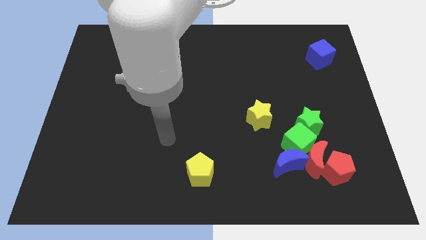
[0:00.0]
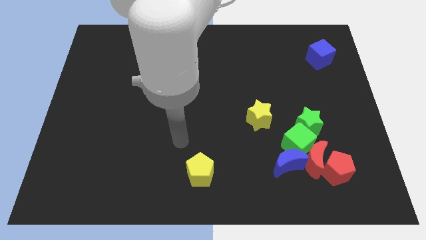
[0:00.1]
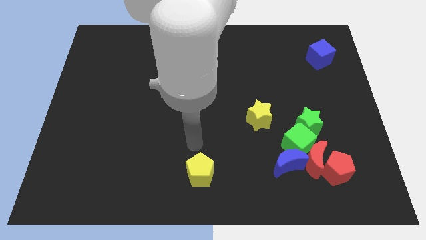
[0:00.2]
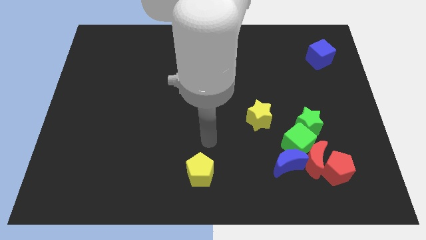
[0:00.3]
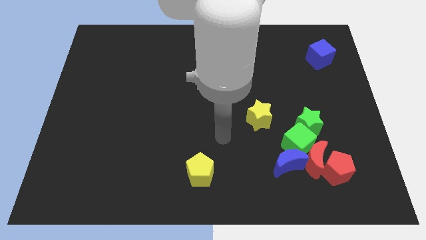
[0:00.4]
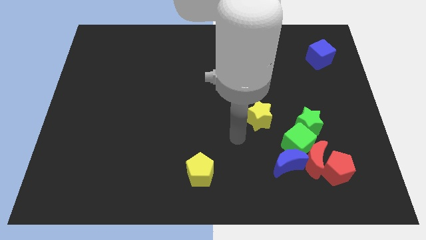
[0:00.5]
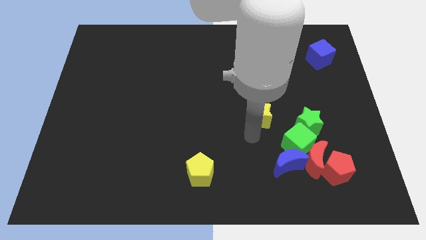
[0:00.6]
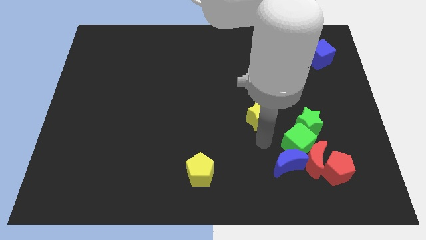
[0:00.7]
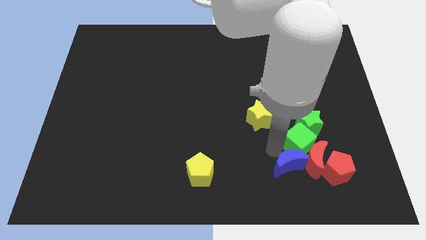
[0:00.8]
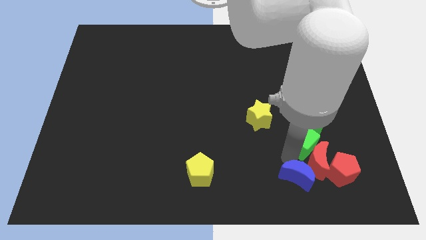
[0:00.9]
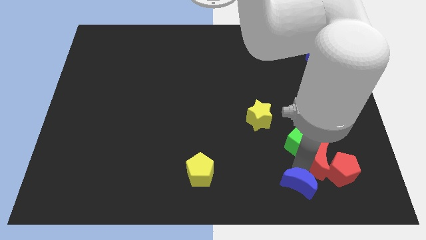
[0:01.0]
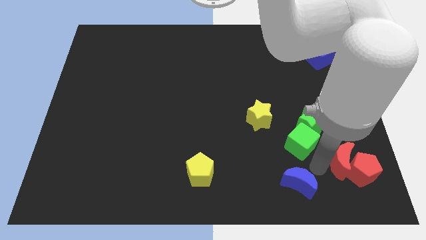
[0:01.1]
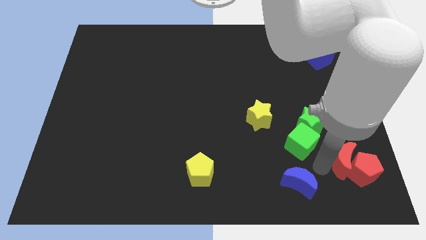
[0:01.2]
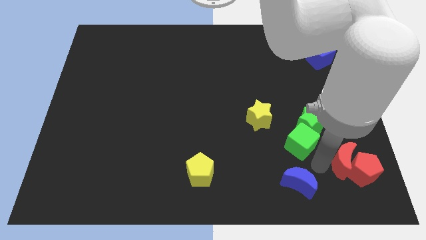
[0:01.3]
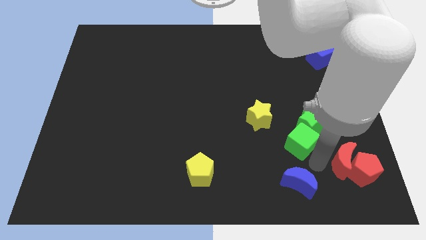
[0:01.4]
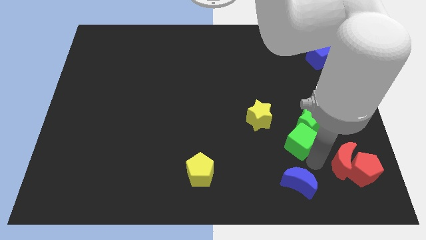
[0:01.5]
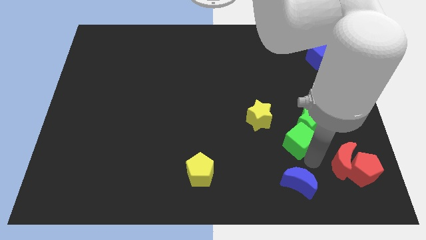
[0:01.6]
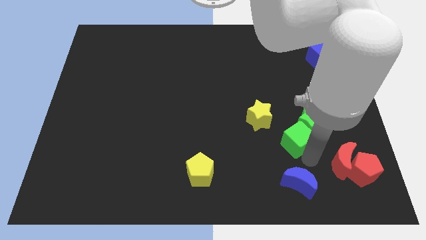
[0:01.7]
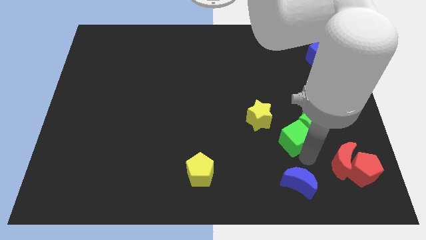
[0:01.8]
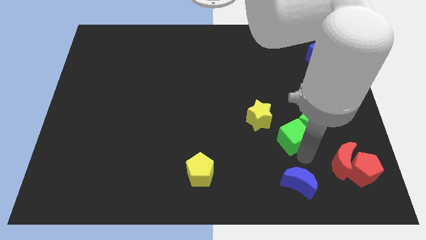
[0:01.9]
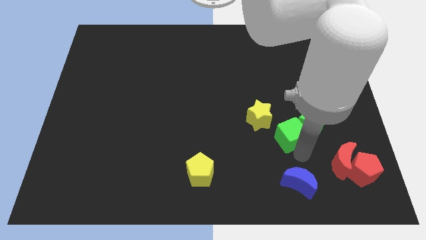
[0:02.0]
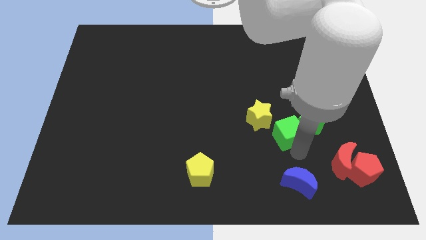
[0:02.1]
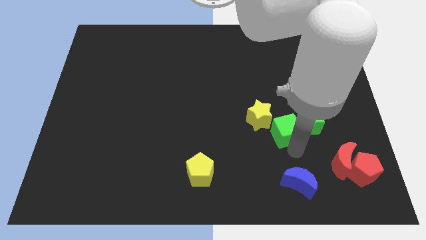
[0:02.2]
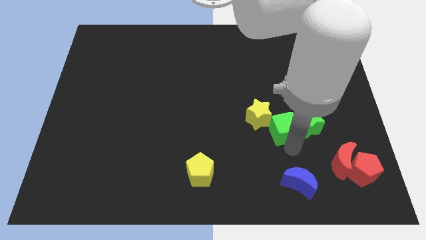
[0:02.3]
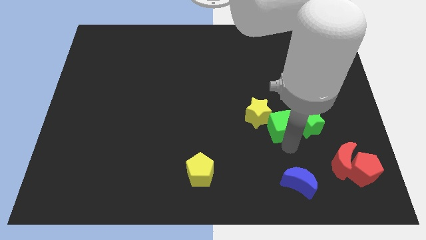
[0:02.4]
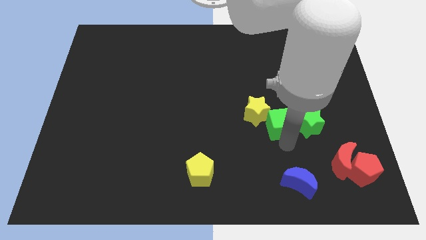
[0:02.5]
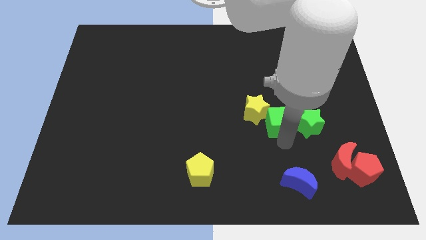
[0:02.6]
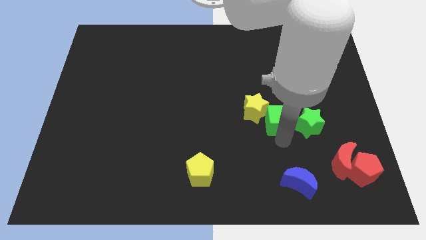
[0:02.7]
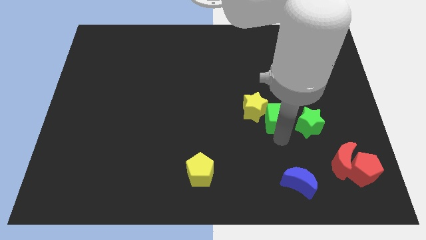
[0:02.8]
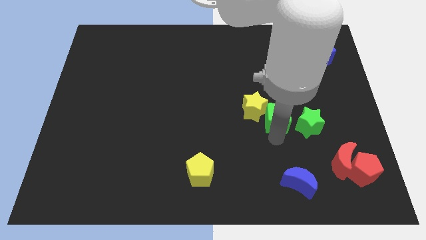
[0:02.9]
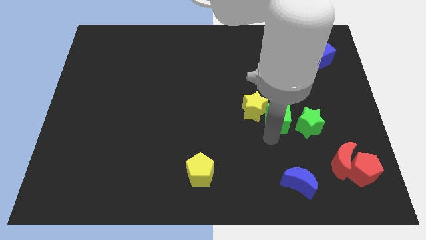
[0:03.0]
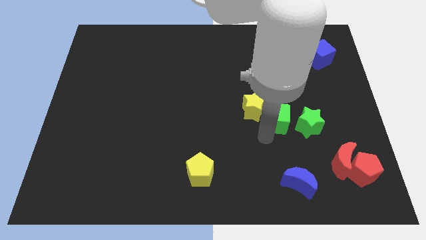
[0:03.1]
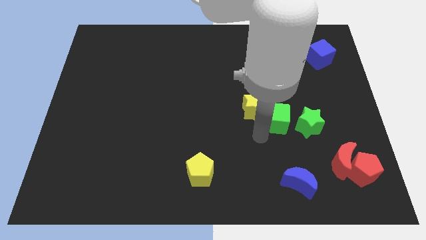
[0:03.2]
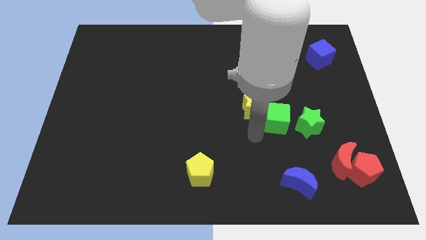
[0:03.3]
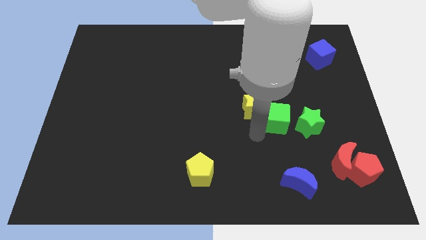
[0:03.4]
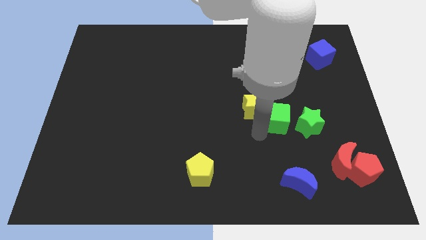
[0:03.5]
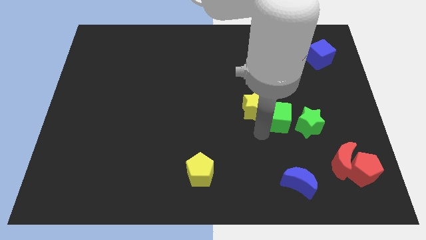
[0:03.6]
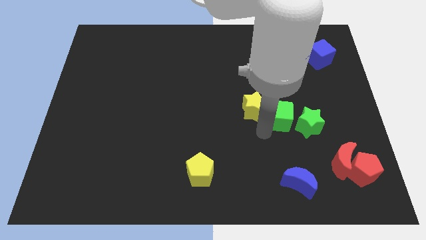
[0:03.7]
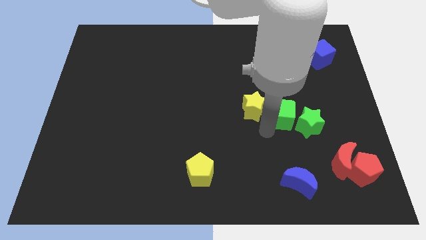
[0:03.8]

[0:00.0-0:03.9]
slide the green cube upwards a bit

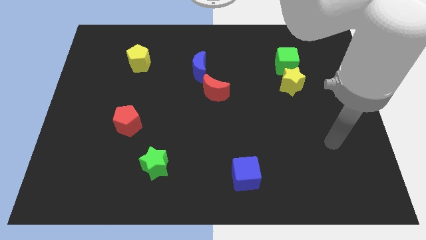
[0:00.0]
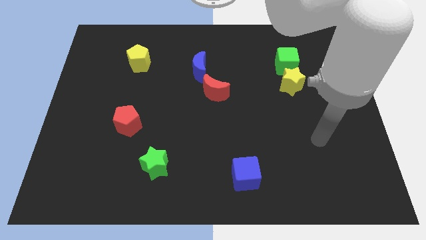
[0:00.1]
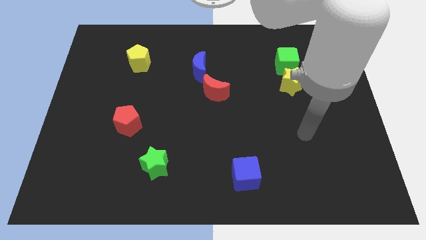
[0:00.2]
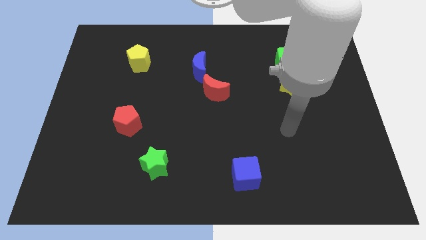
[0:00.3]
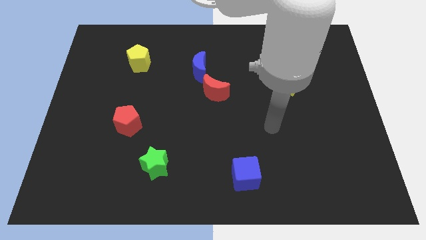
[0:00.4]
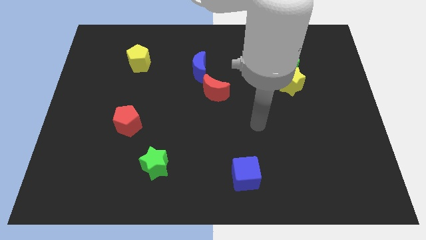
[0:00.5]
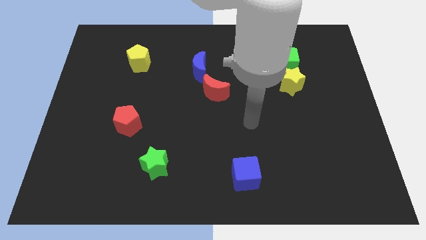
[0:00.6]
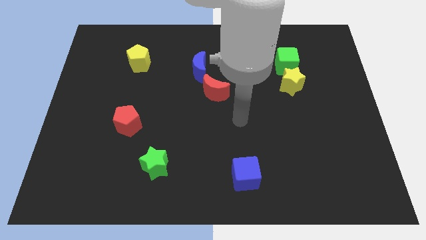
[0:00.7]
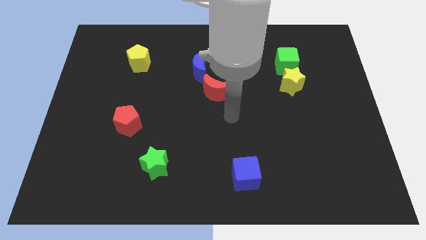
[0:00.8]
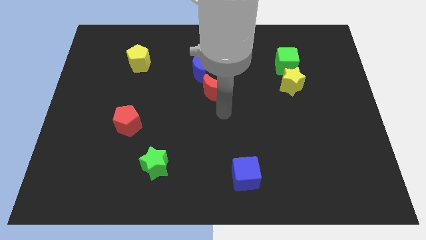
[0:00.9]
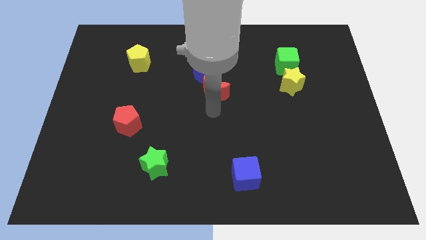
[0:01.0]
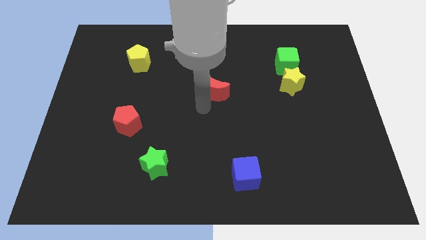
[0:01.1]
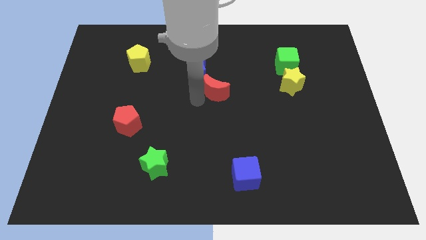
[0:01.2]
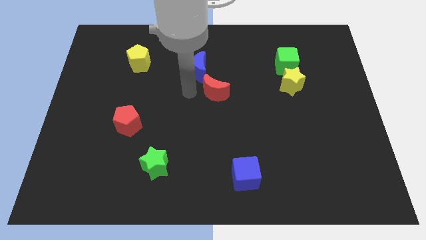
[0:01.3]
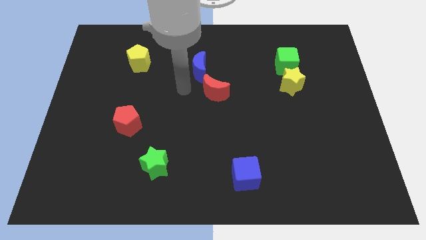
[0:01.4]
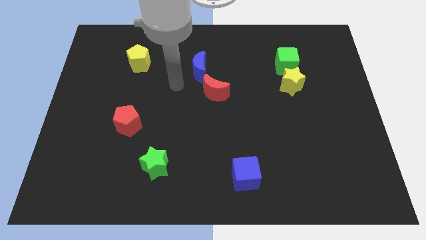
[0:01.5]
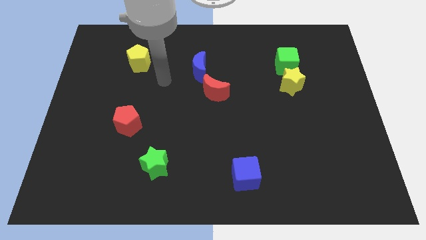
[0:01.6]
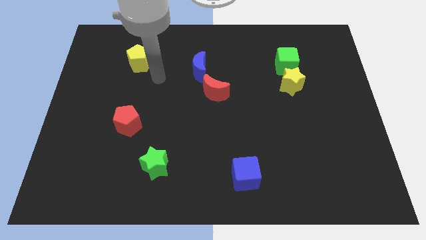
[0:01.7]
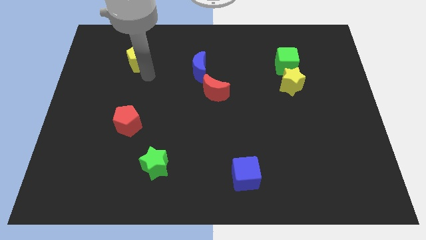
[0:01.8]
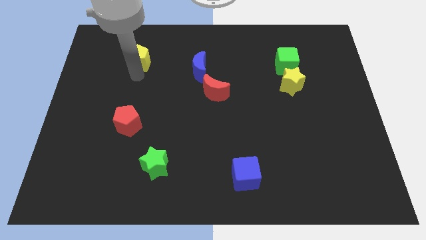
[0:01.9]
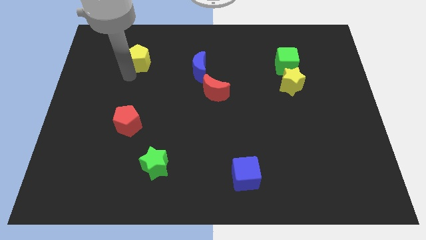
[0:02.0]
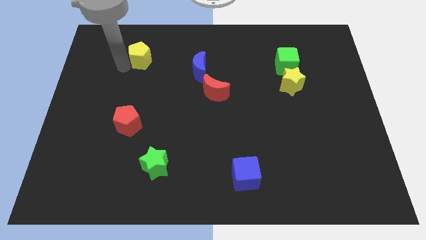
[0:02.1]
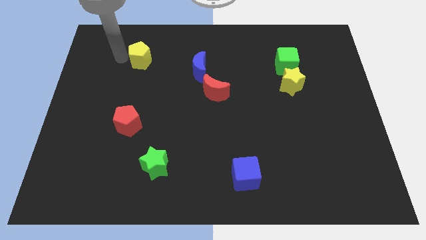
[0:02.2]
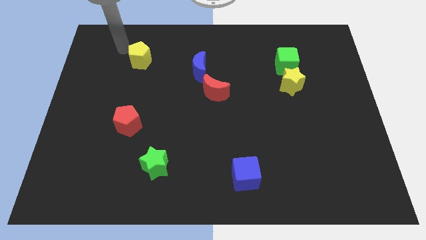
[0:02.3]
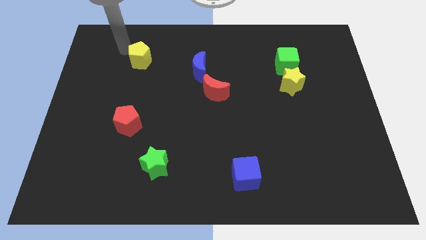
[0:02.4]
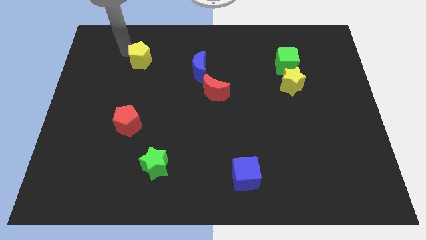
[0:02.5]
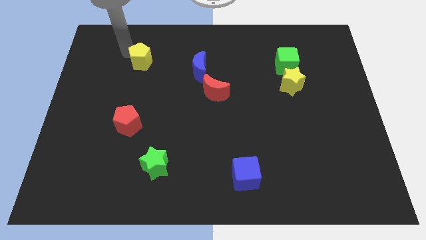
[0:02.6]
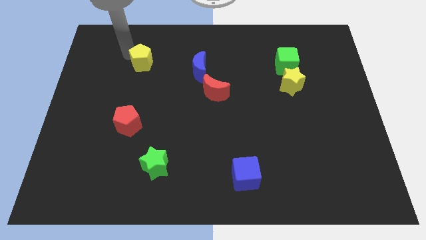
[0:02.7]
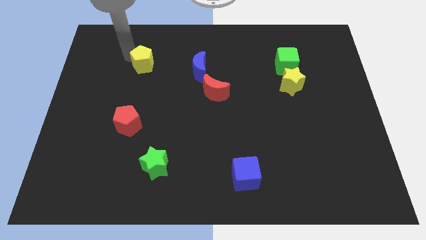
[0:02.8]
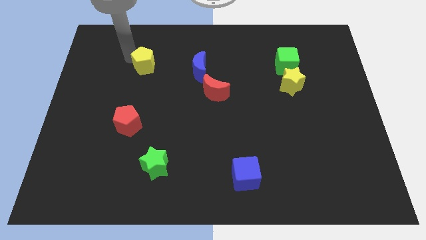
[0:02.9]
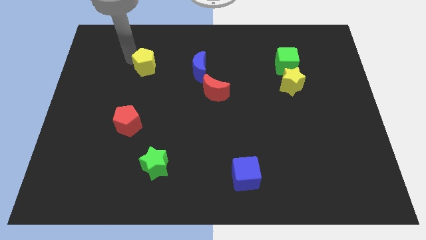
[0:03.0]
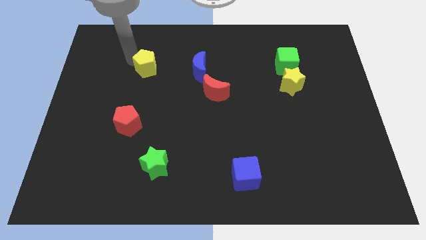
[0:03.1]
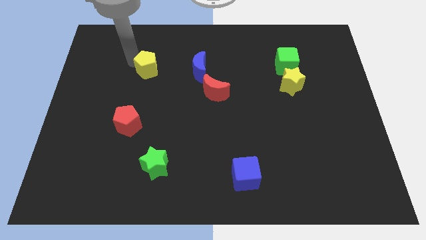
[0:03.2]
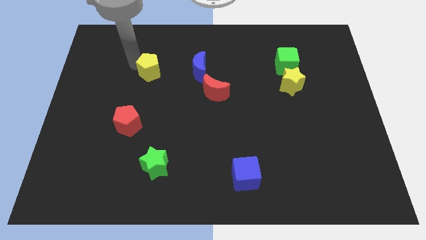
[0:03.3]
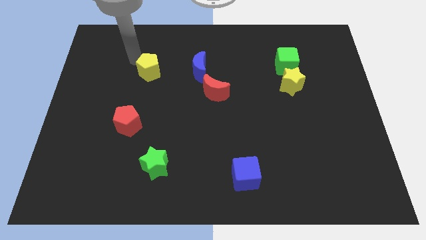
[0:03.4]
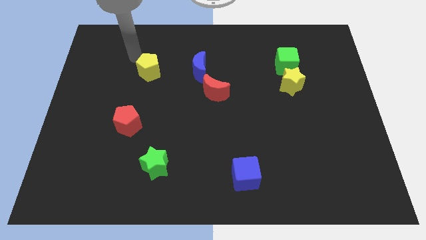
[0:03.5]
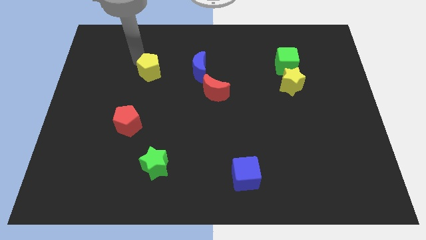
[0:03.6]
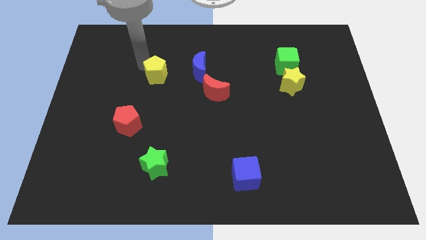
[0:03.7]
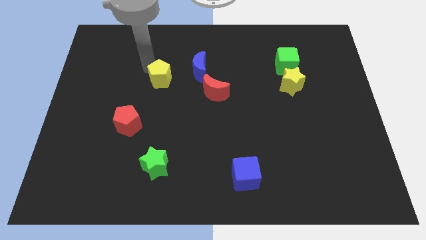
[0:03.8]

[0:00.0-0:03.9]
slightly move the yellow pentagon downwards and then right
